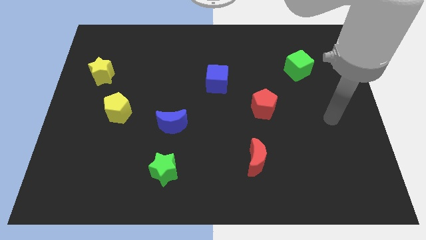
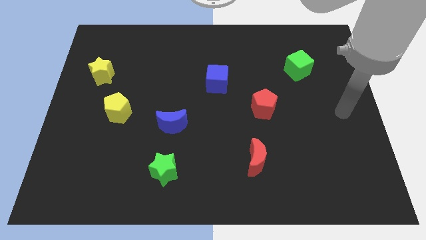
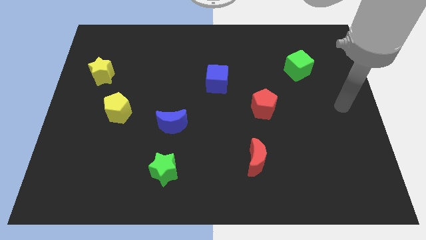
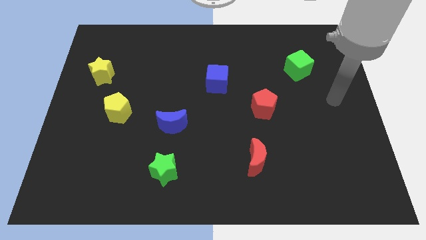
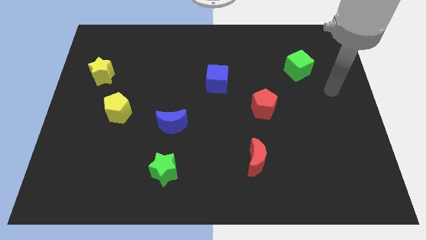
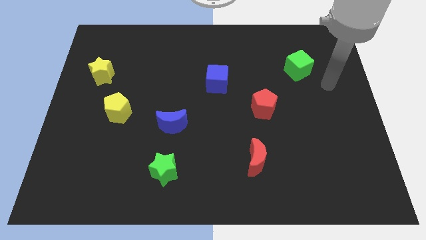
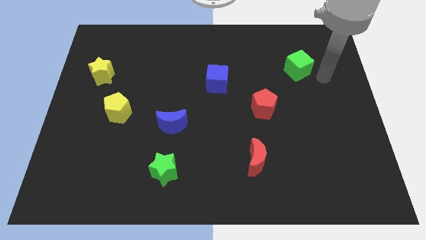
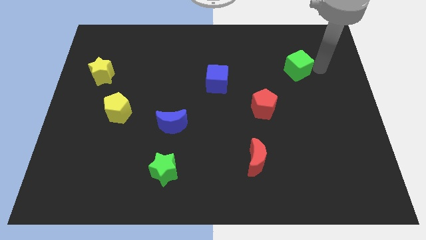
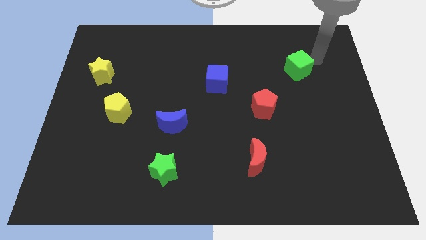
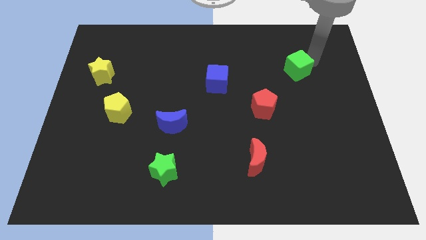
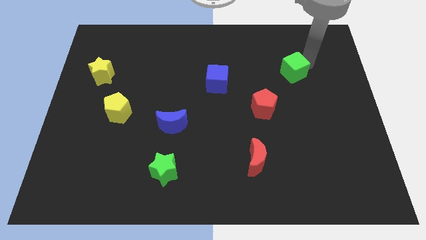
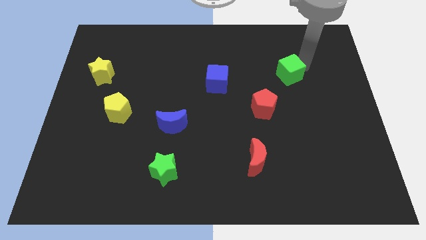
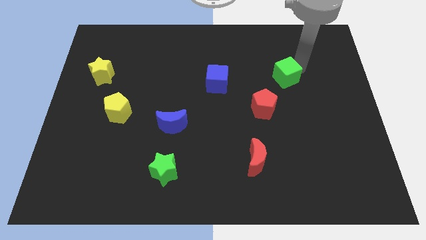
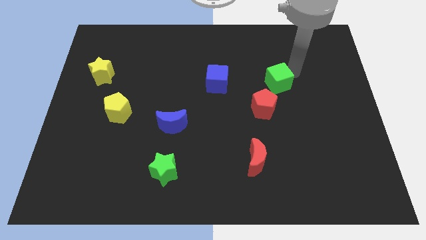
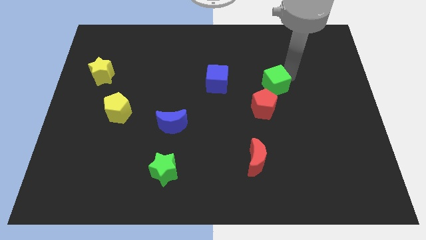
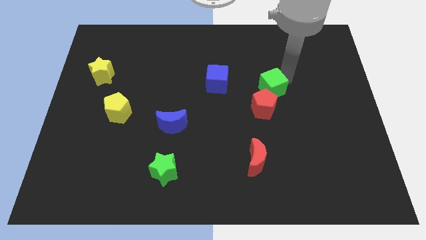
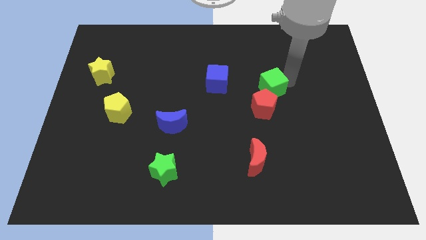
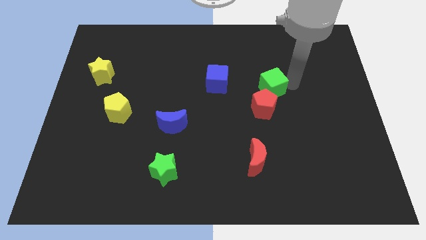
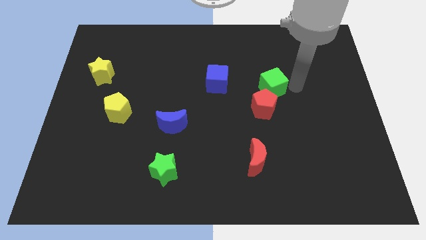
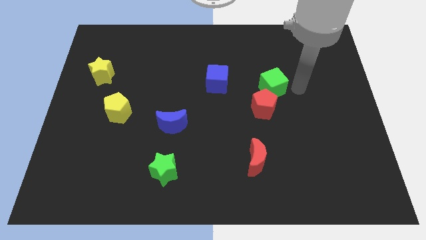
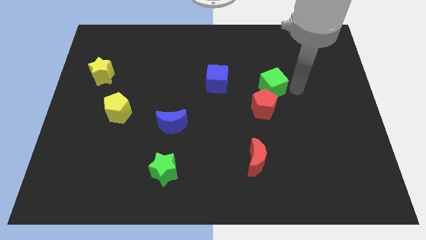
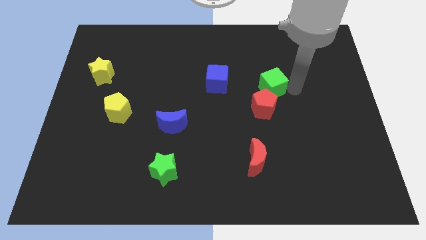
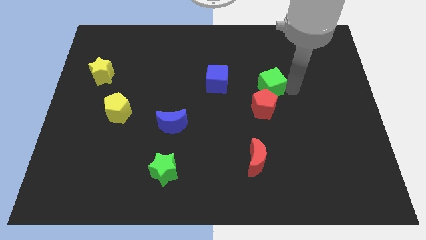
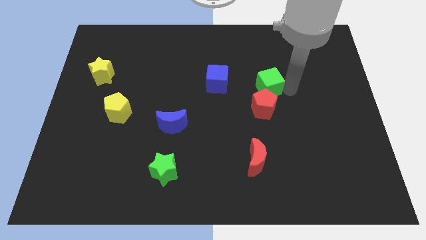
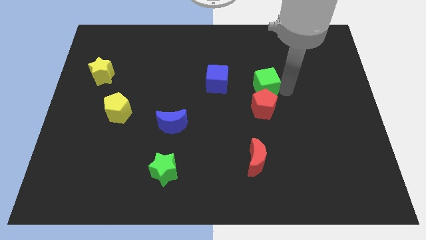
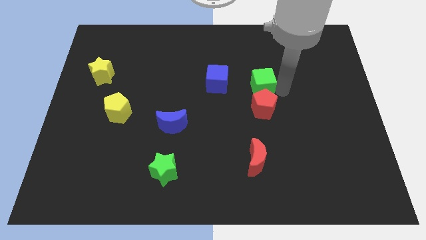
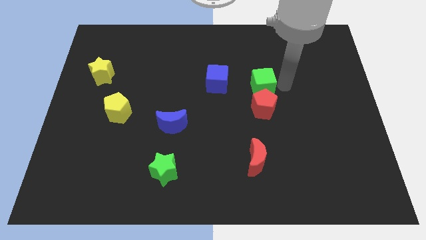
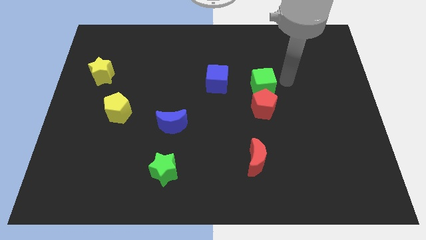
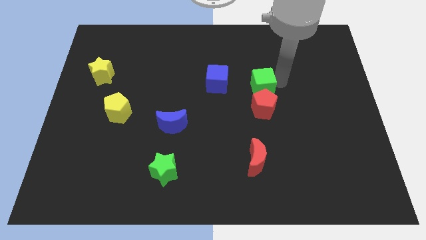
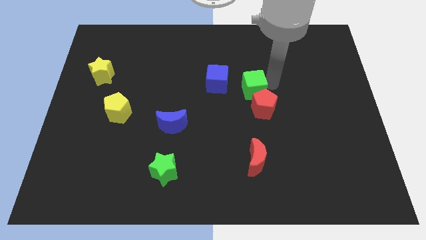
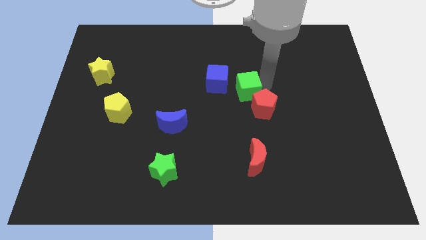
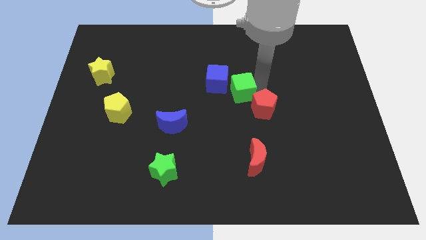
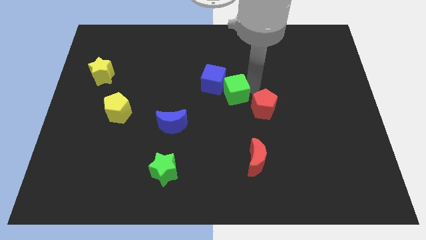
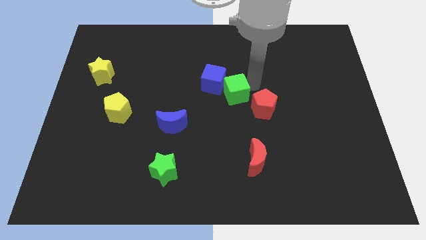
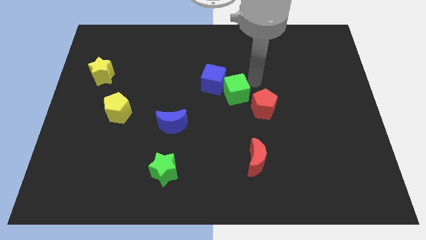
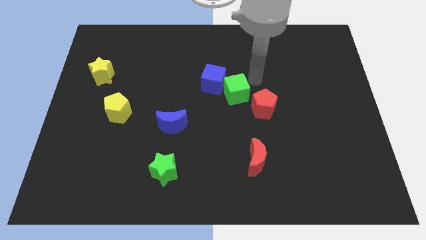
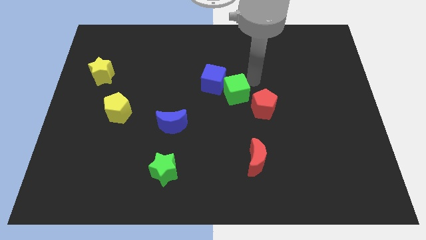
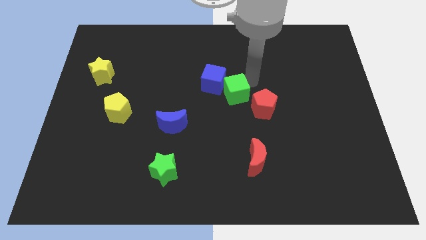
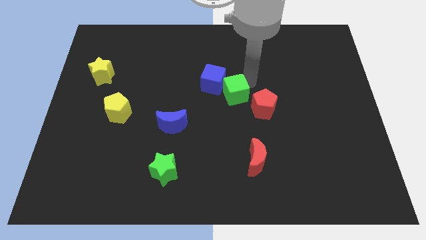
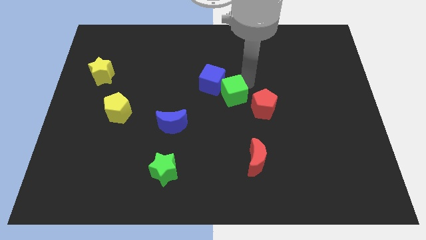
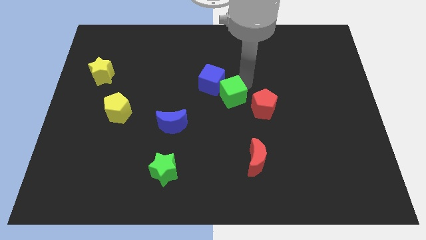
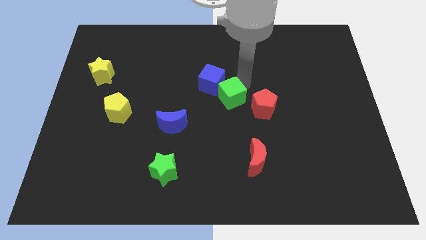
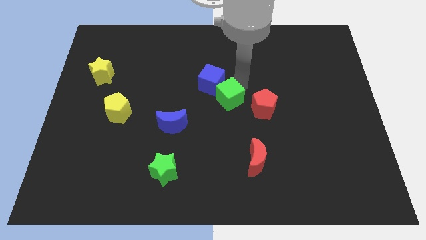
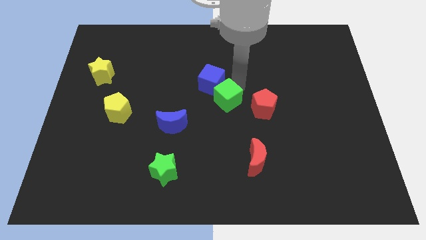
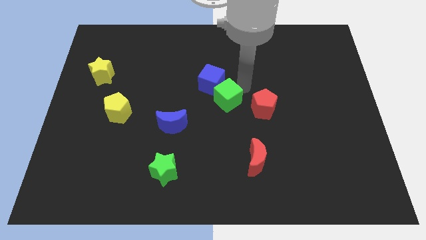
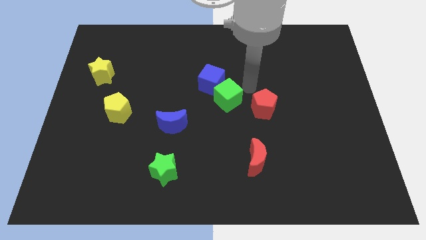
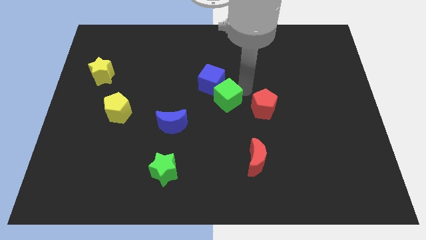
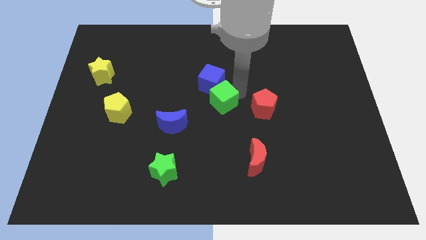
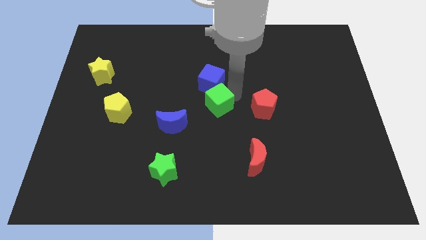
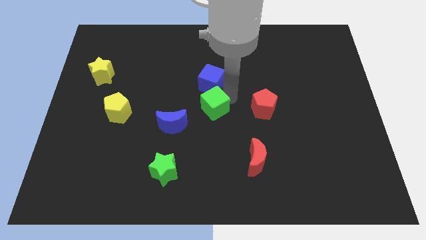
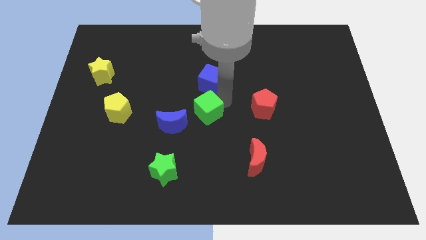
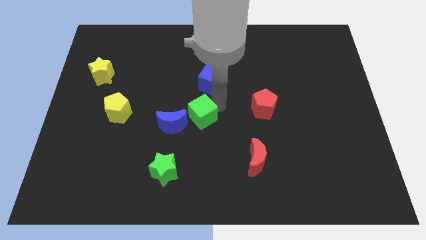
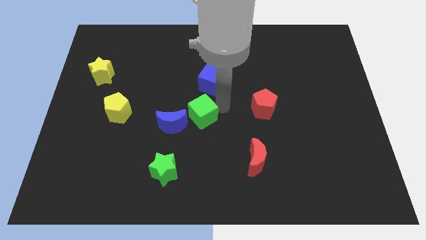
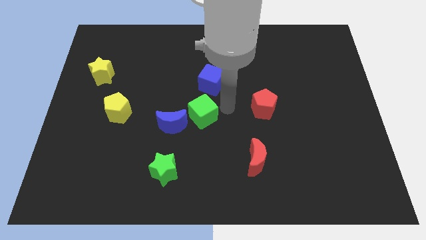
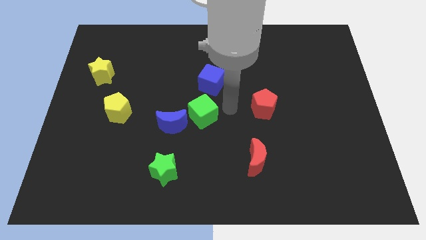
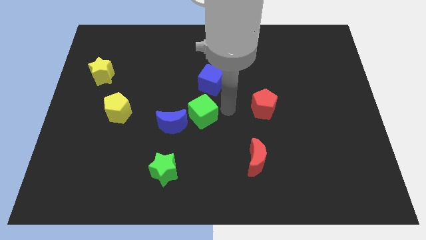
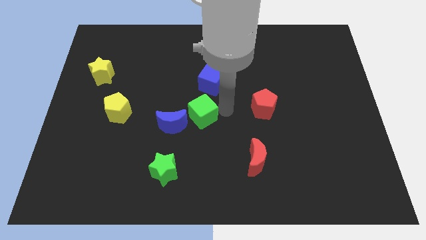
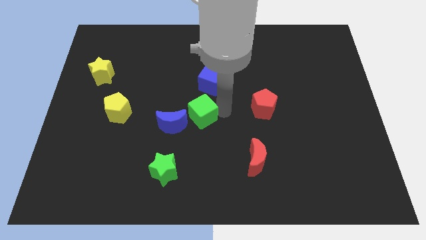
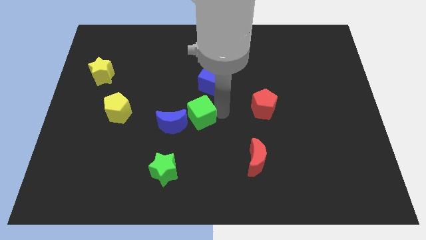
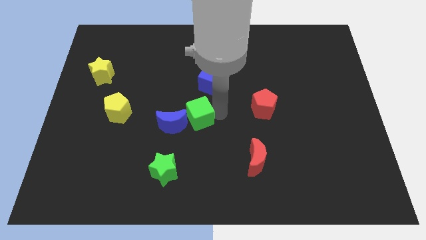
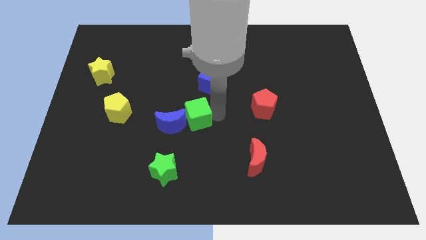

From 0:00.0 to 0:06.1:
push the green cube towards the blue moon

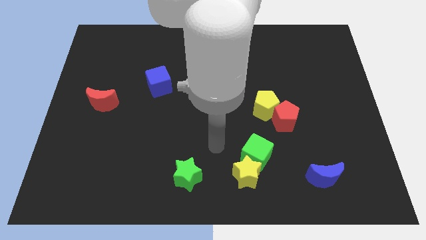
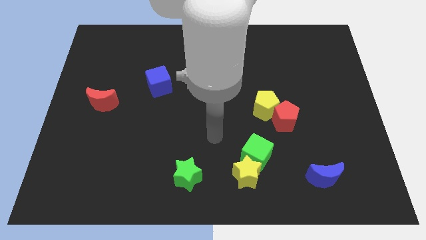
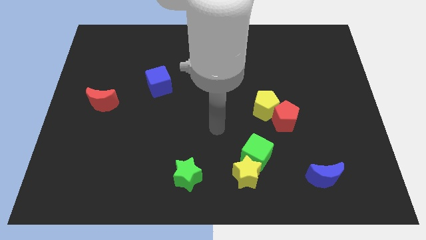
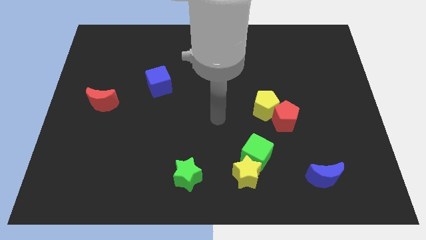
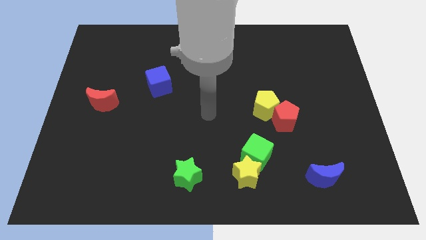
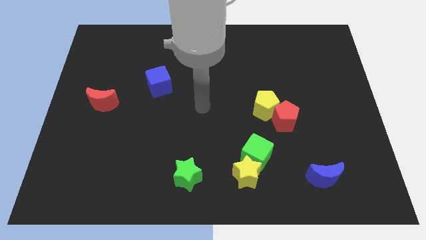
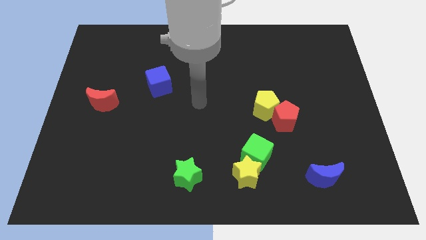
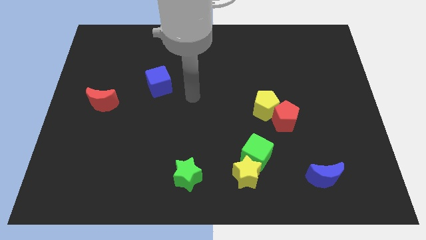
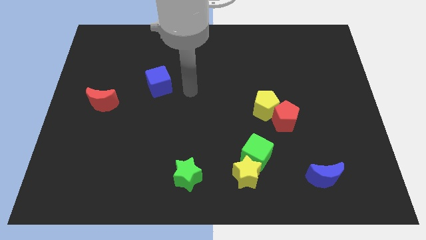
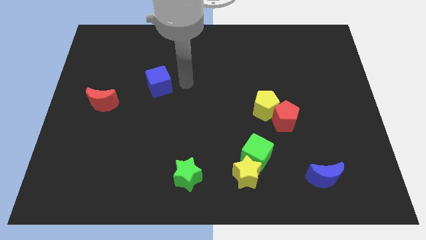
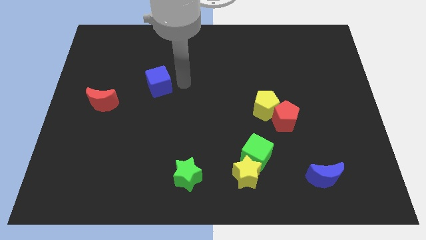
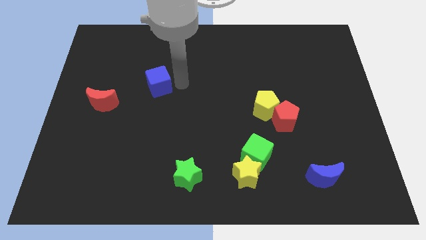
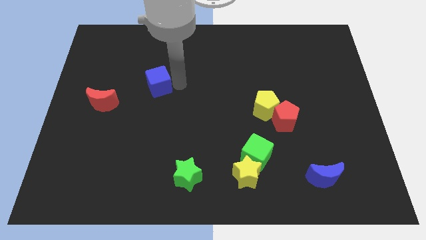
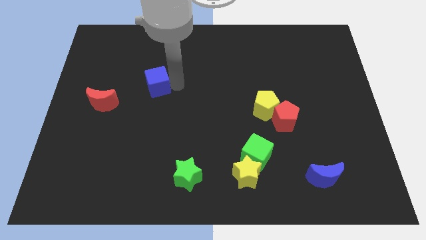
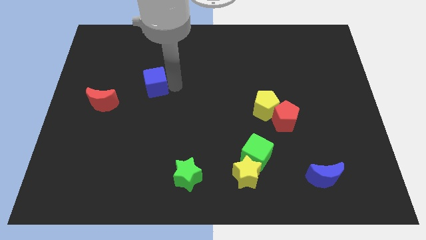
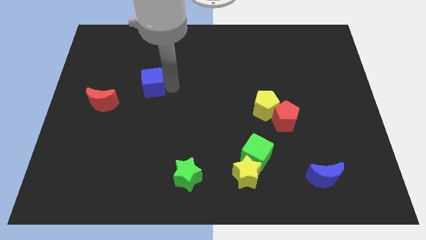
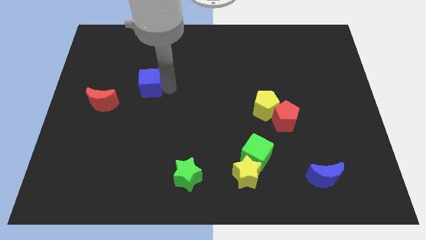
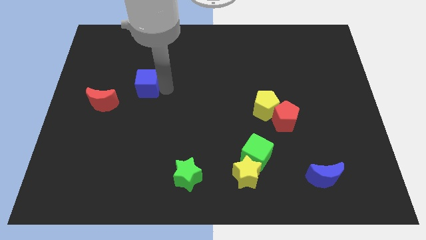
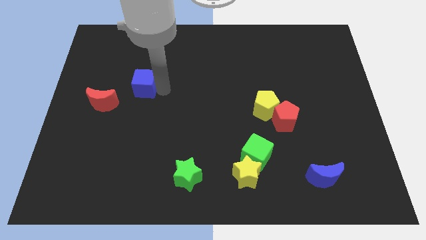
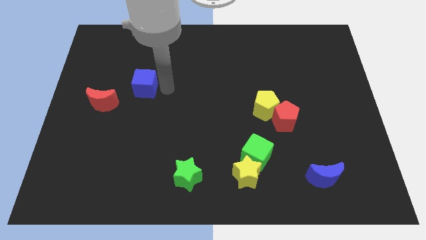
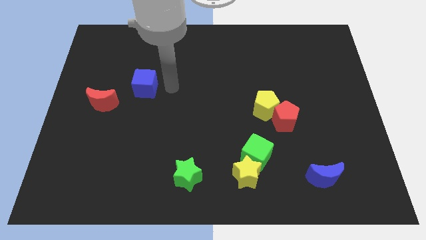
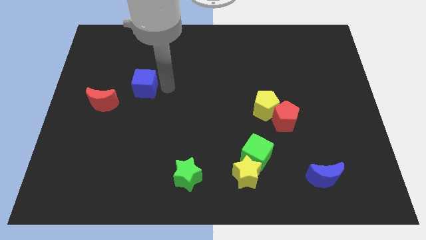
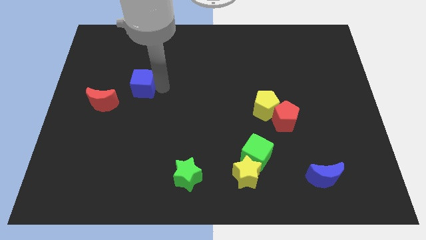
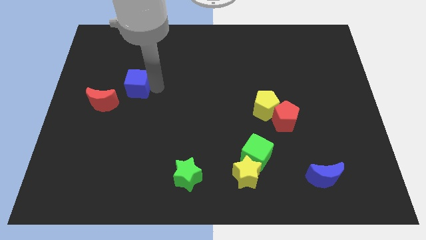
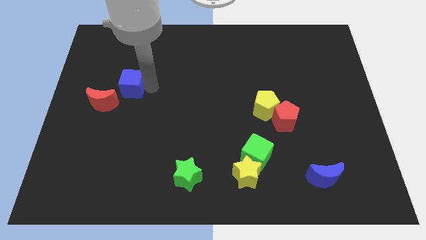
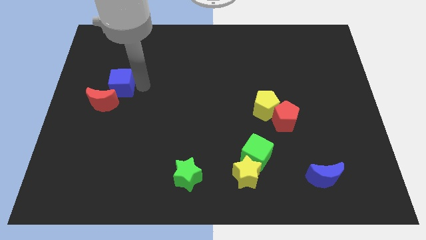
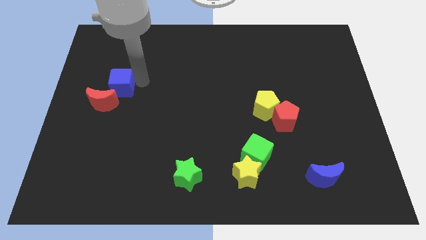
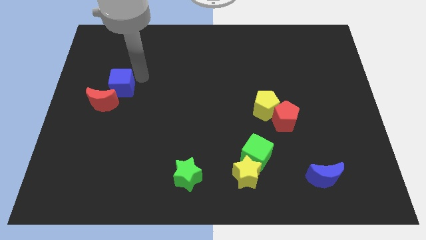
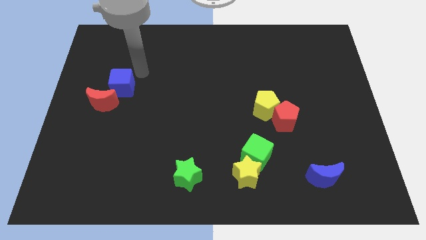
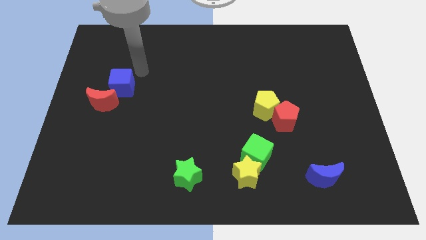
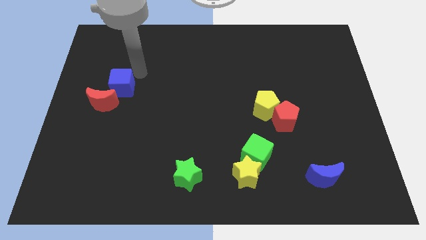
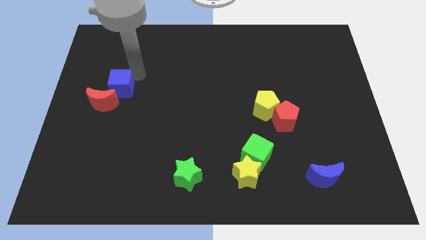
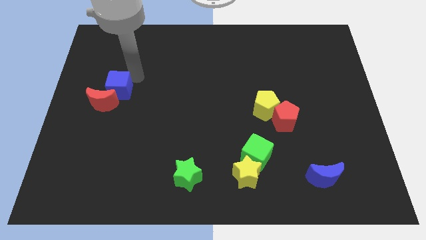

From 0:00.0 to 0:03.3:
push the blue cube next to the red moon
